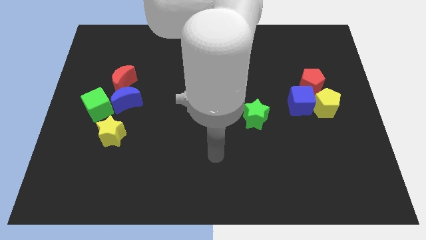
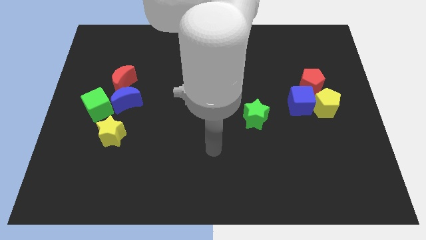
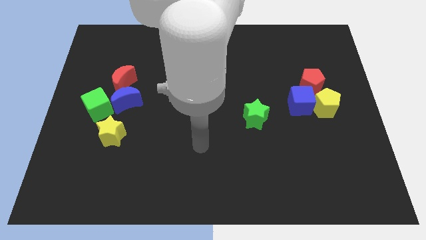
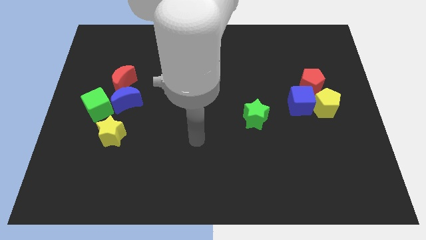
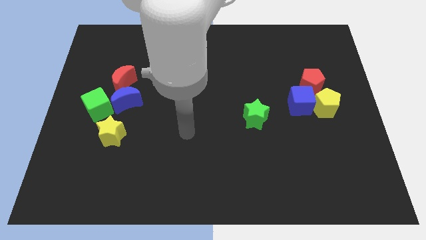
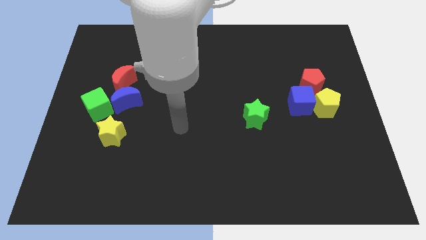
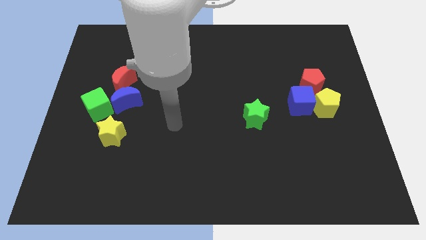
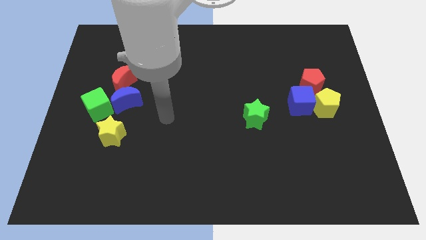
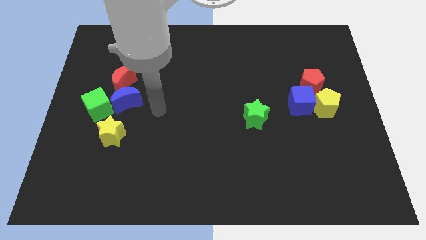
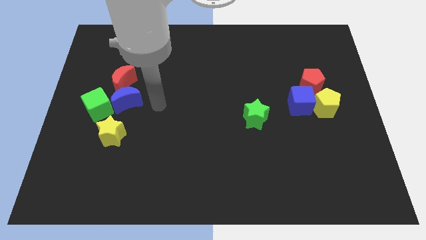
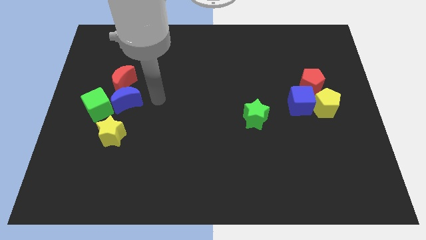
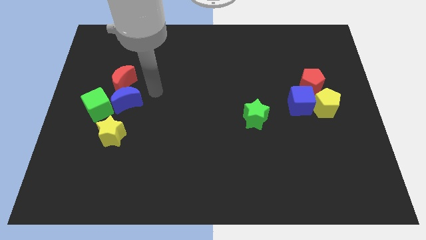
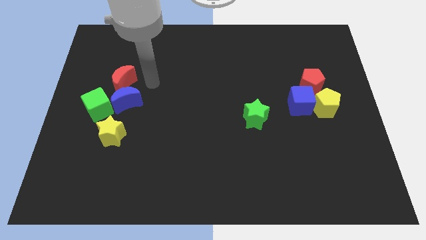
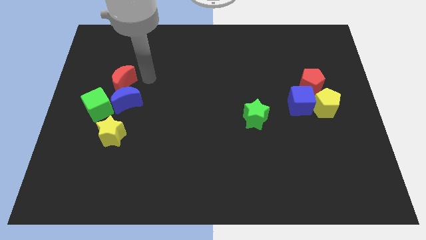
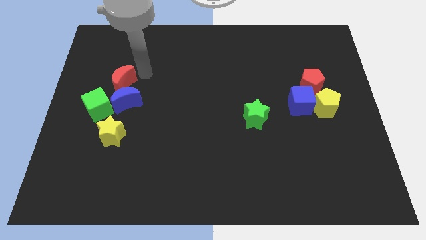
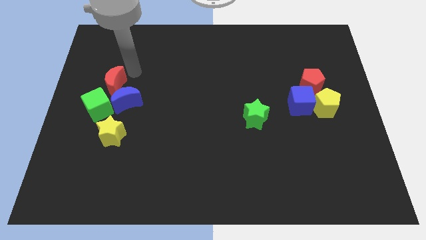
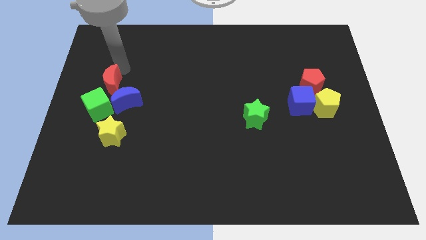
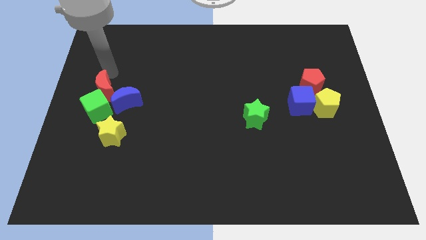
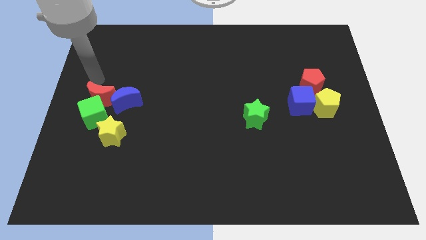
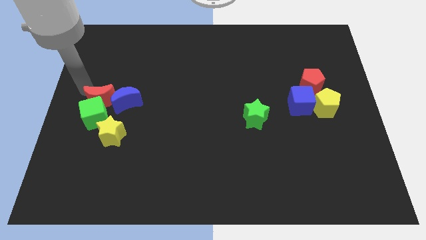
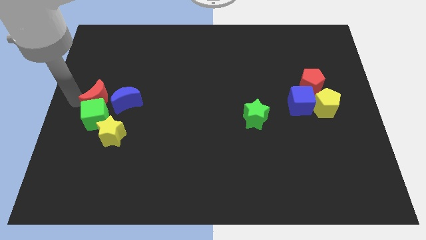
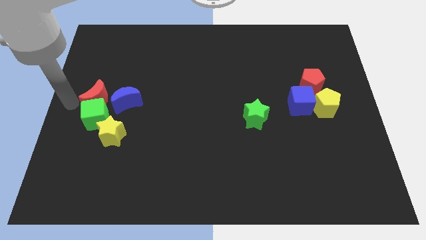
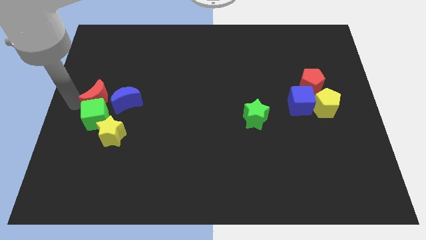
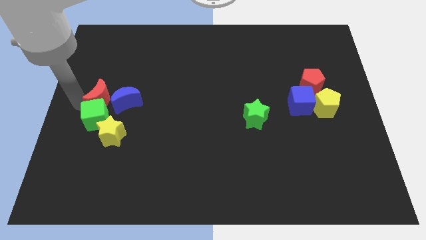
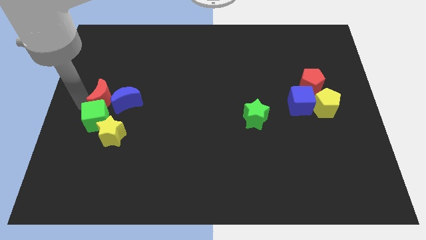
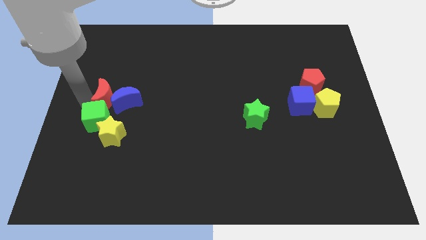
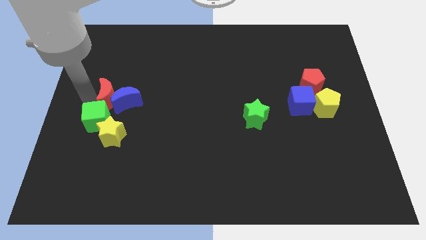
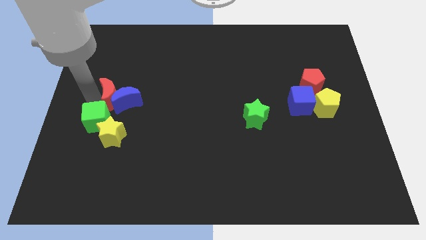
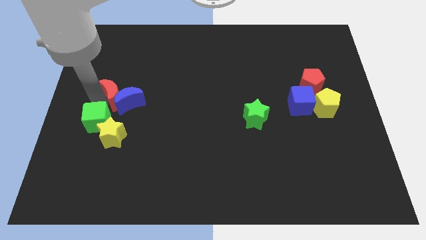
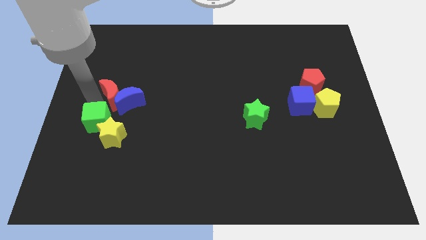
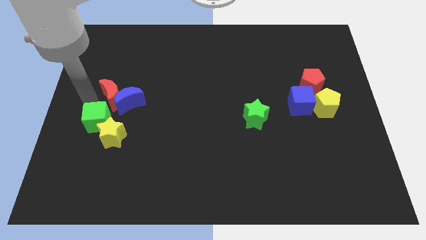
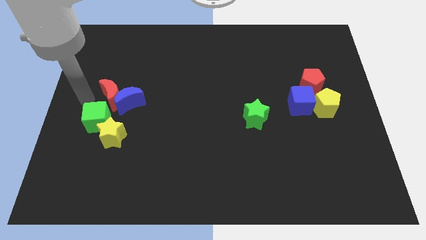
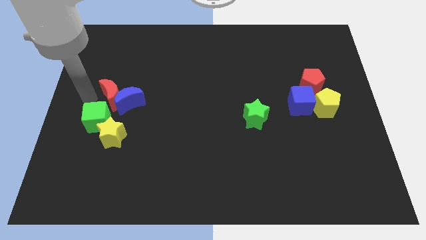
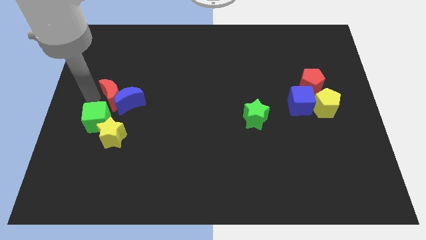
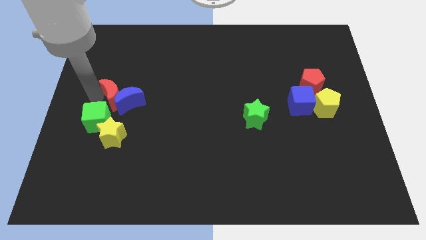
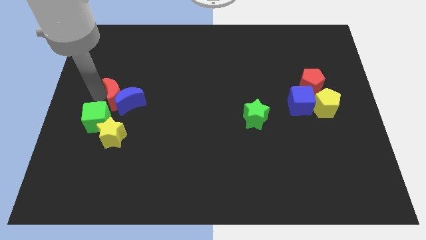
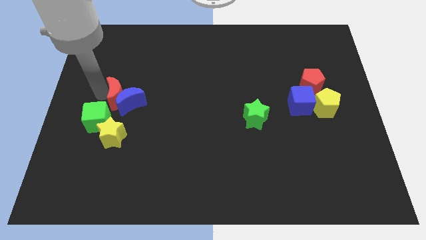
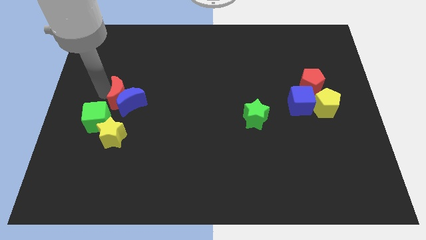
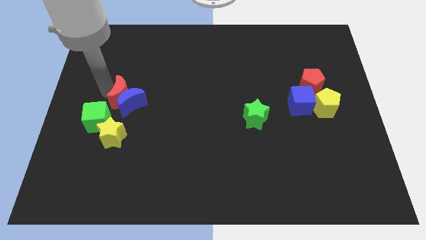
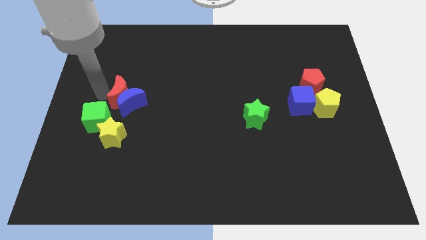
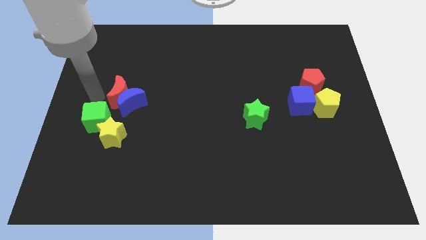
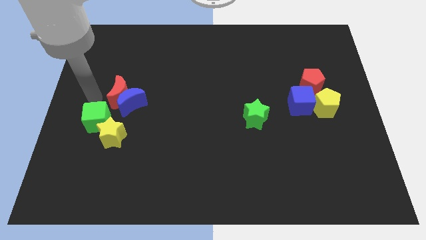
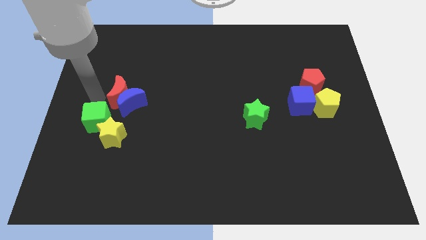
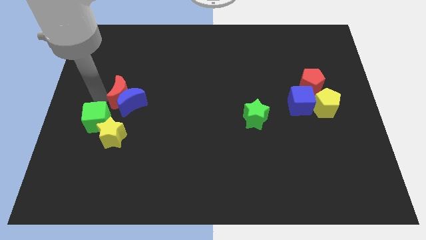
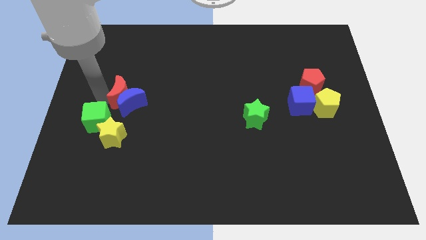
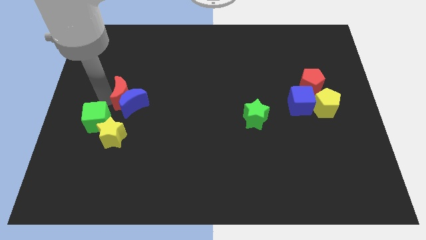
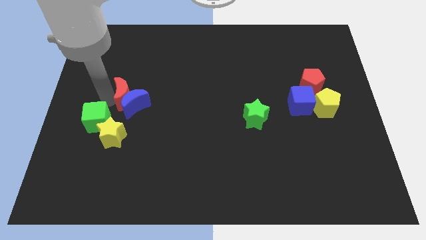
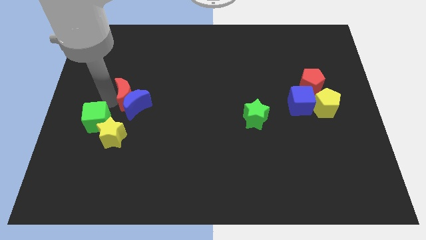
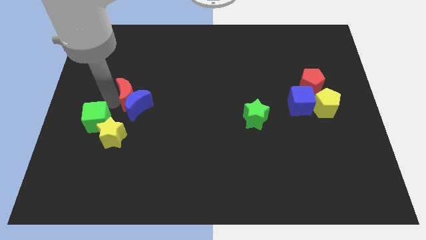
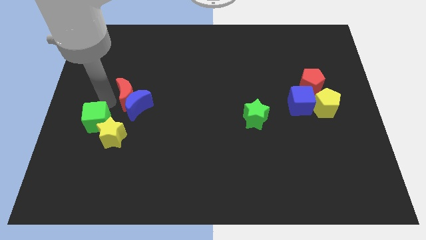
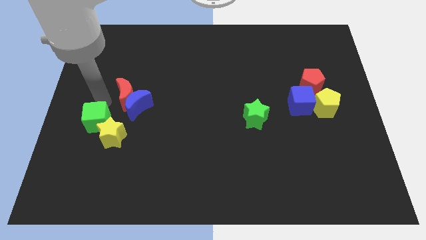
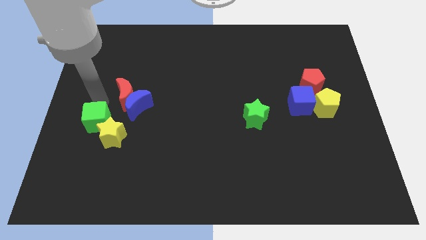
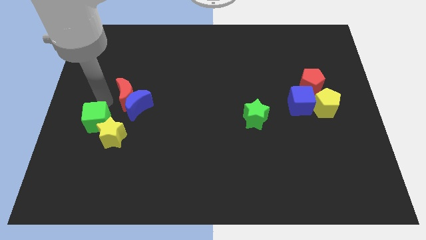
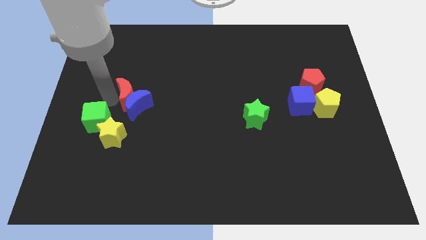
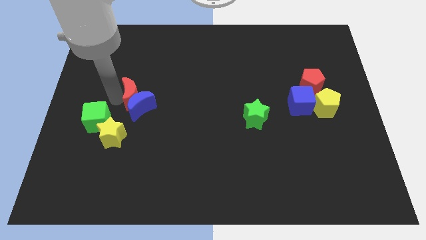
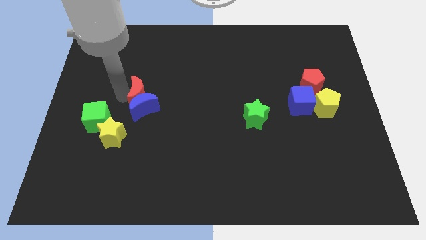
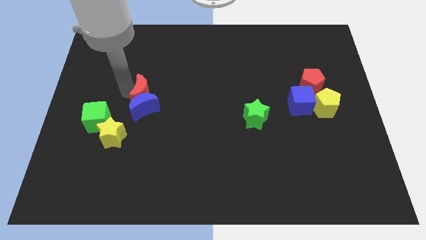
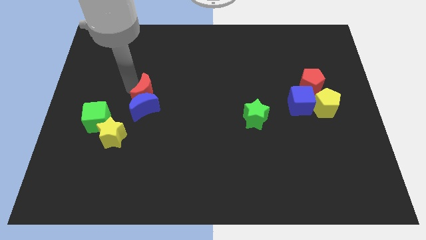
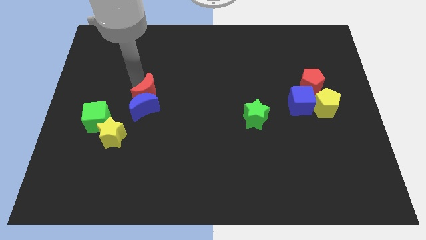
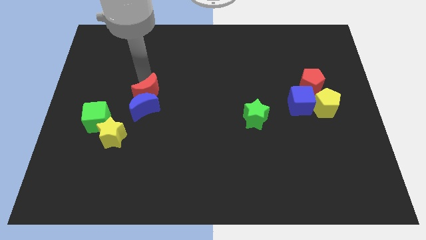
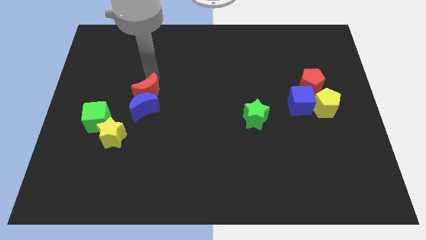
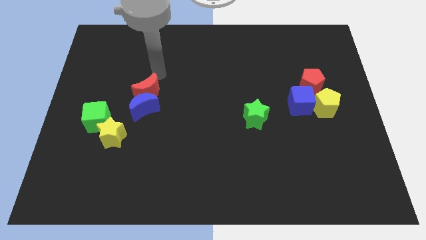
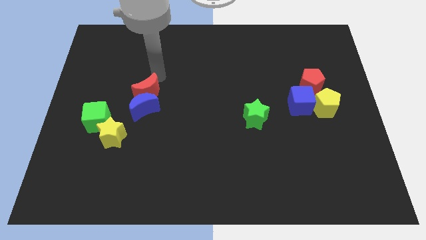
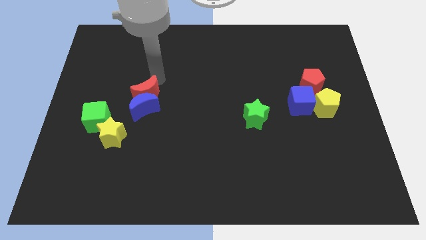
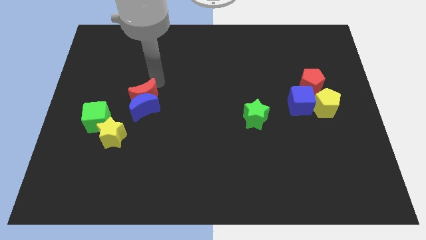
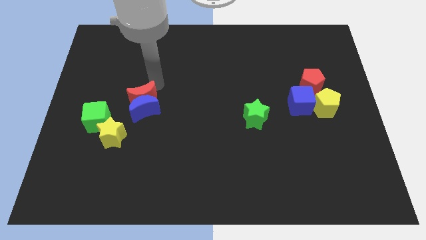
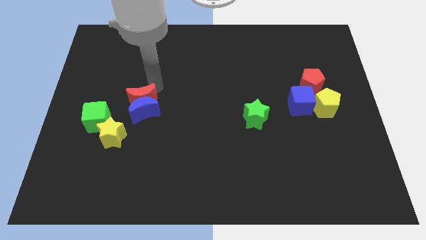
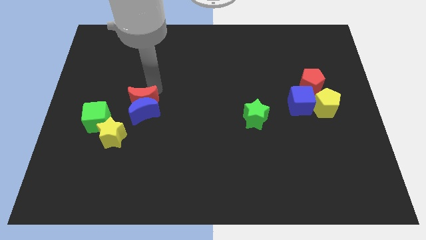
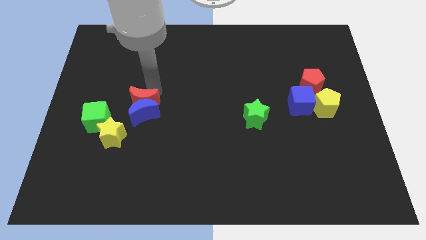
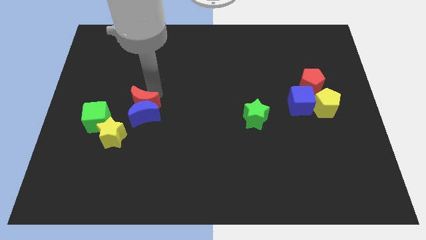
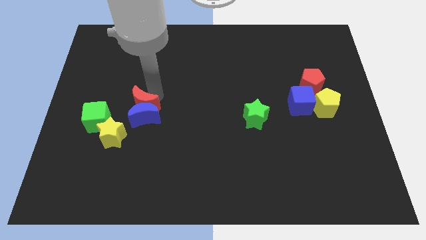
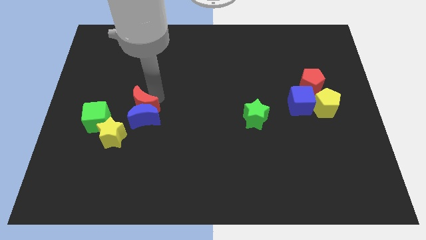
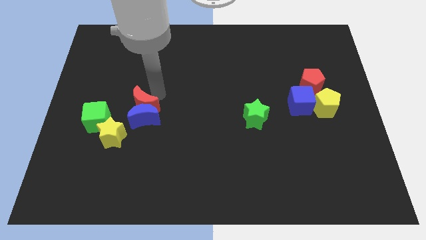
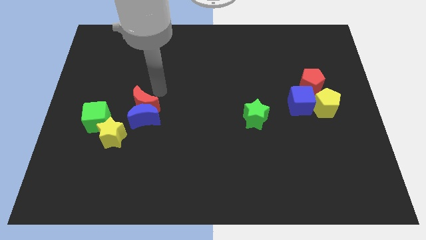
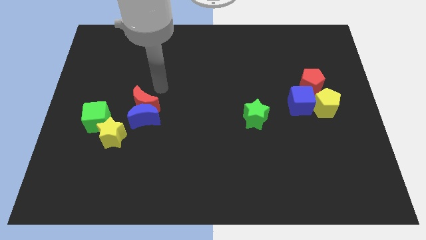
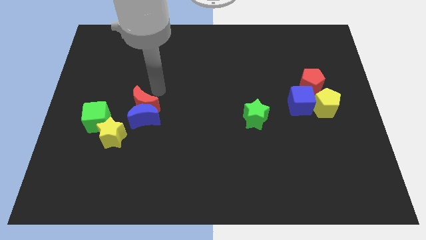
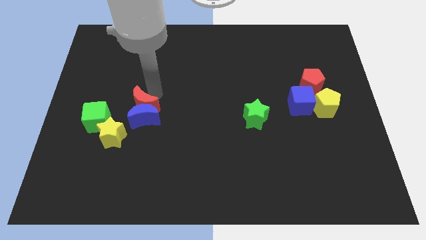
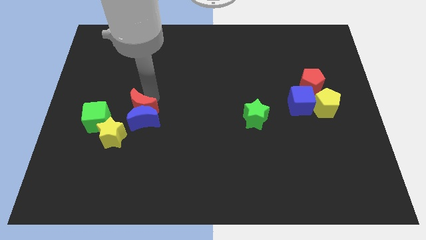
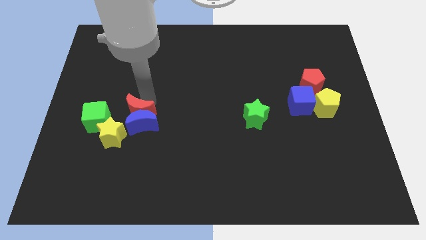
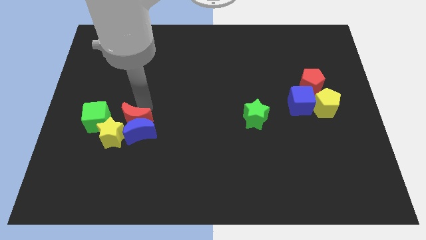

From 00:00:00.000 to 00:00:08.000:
move the red moon to the yellow star

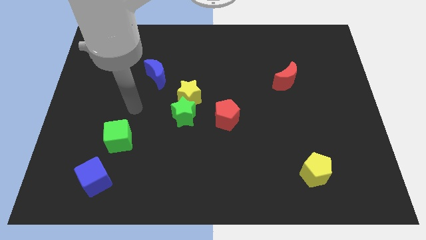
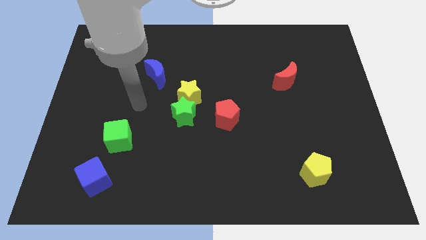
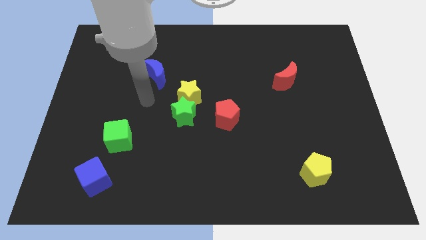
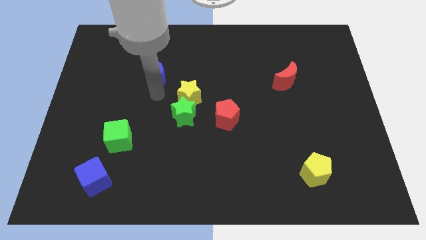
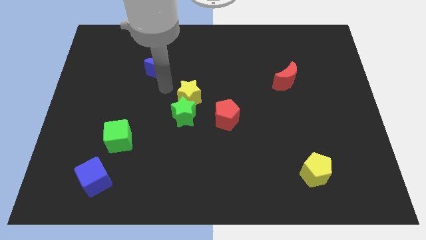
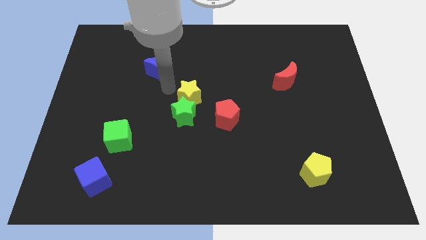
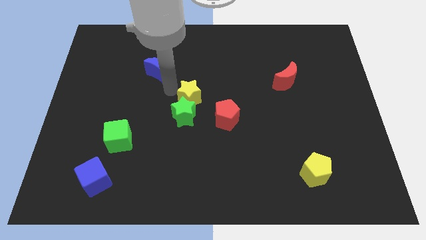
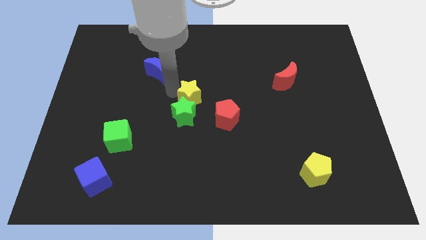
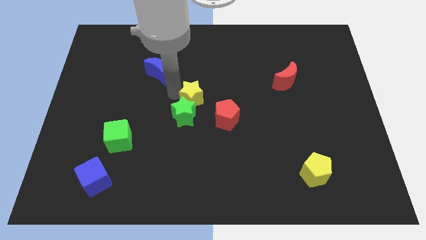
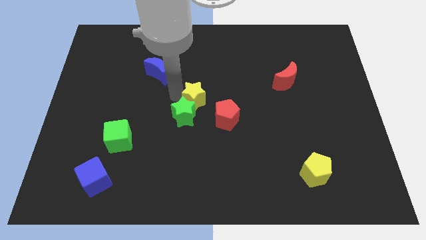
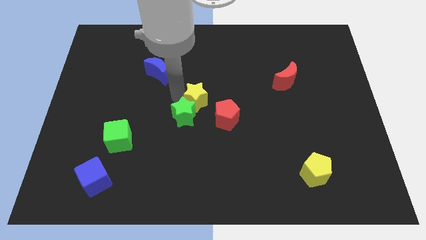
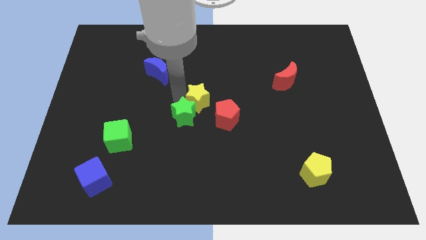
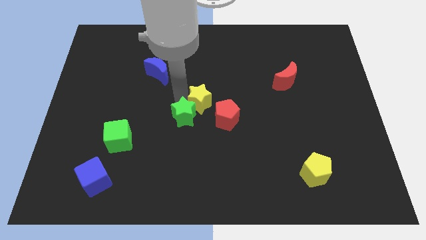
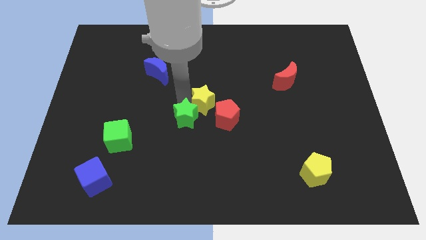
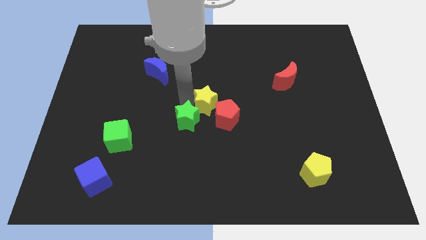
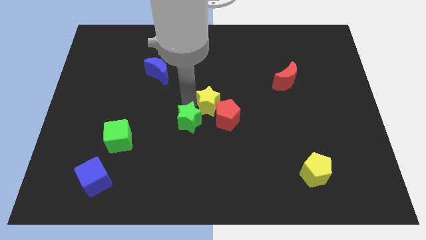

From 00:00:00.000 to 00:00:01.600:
put the yellow star next to the red pentagon
